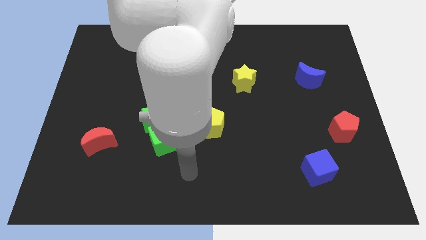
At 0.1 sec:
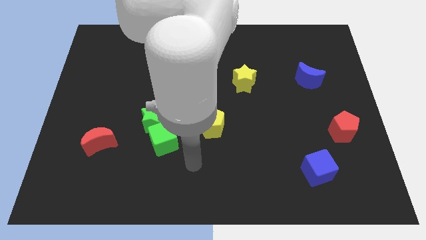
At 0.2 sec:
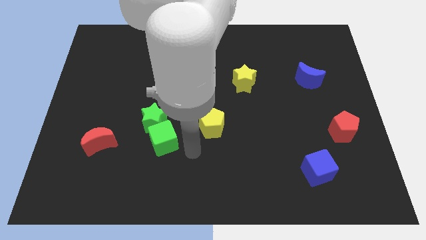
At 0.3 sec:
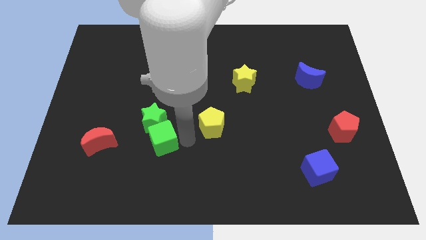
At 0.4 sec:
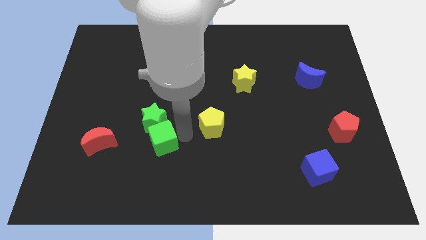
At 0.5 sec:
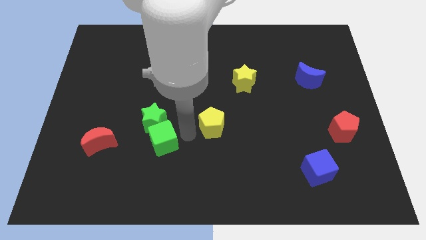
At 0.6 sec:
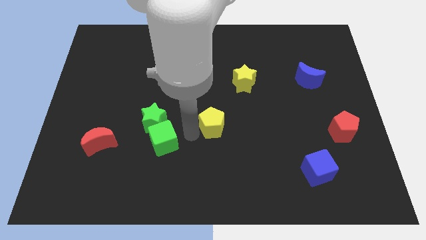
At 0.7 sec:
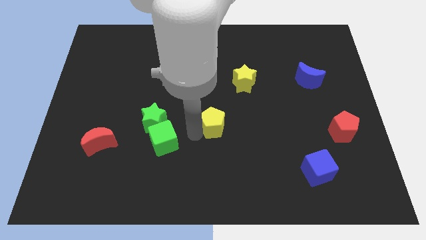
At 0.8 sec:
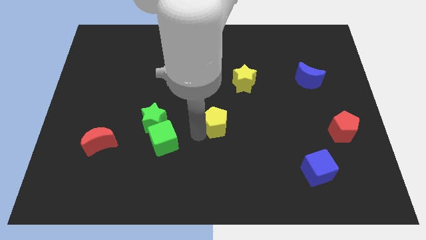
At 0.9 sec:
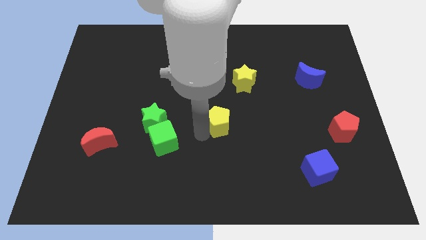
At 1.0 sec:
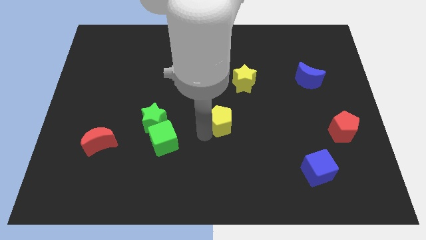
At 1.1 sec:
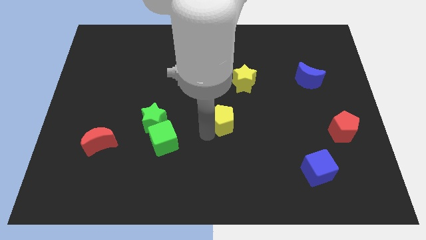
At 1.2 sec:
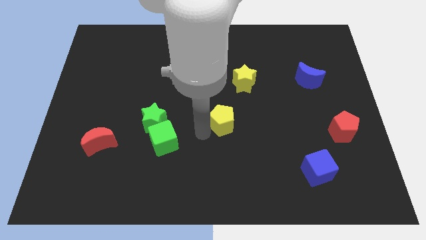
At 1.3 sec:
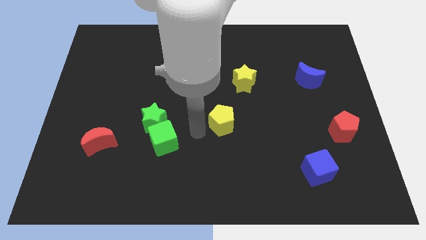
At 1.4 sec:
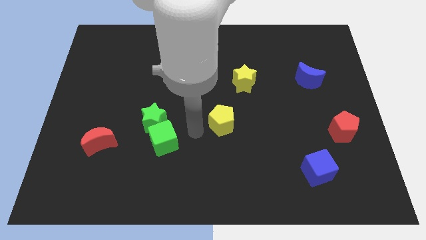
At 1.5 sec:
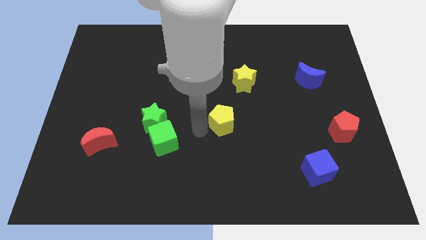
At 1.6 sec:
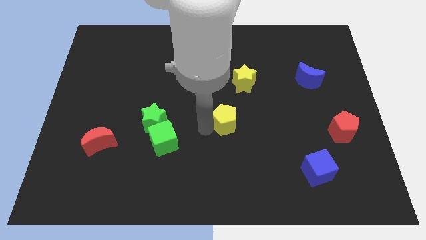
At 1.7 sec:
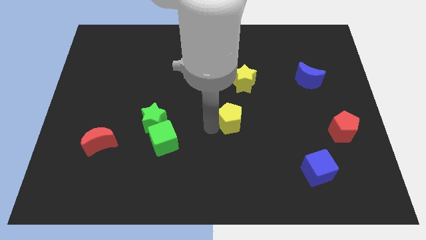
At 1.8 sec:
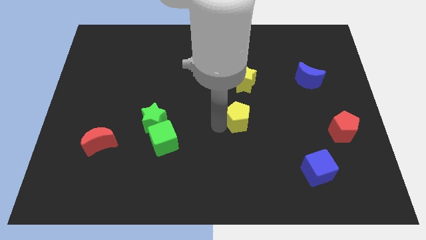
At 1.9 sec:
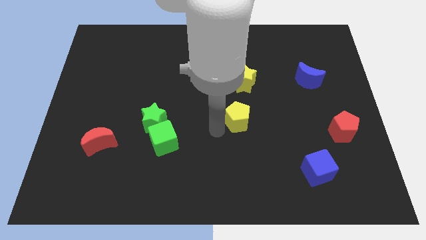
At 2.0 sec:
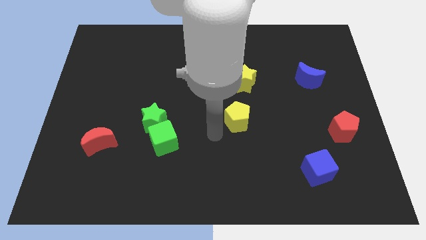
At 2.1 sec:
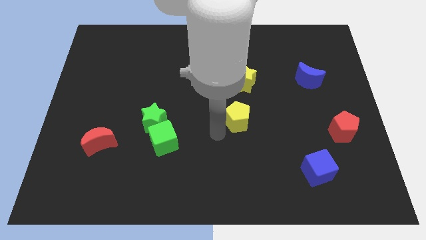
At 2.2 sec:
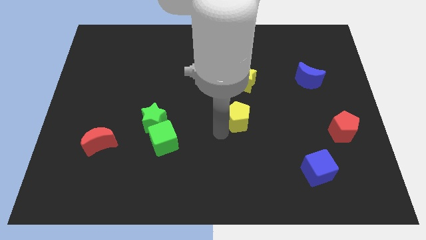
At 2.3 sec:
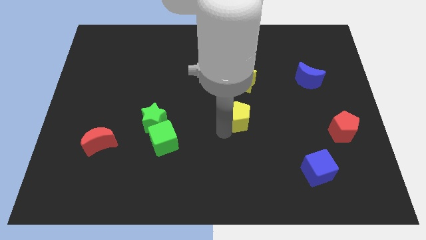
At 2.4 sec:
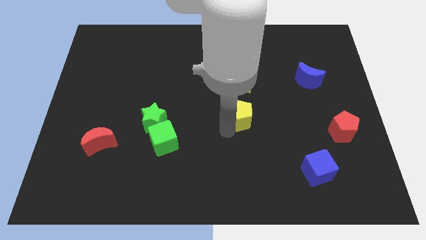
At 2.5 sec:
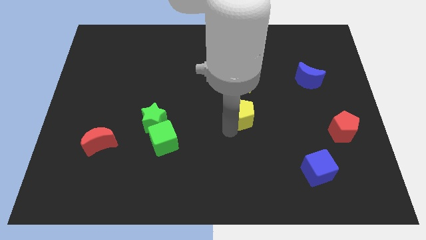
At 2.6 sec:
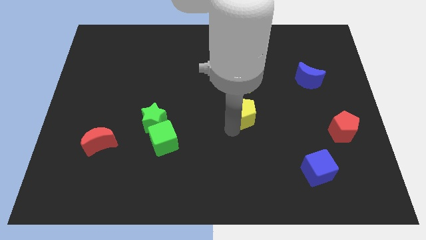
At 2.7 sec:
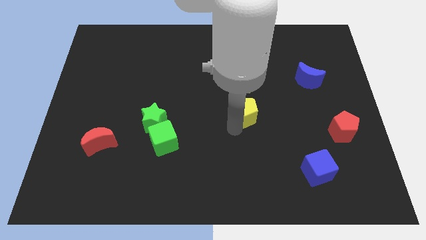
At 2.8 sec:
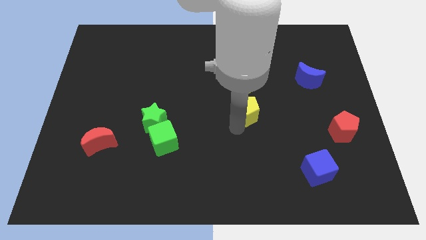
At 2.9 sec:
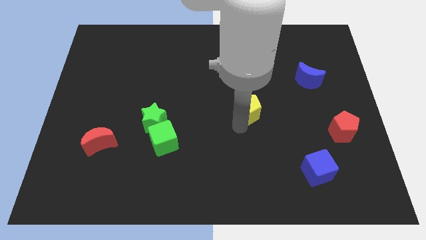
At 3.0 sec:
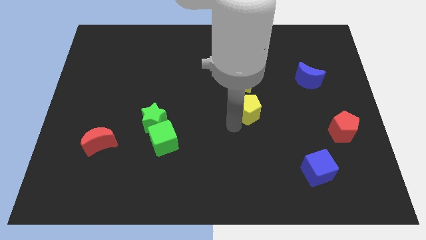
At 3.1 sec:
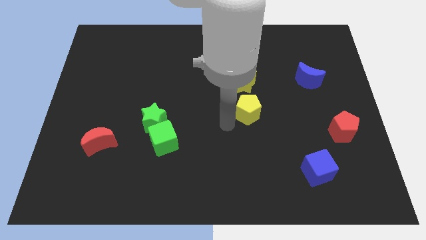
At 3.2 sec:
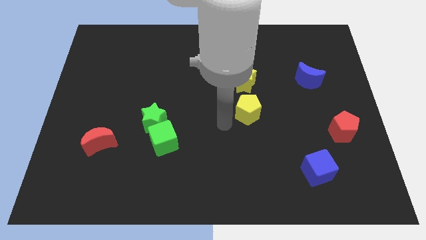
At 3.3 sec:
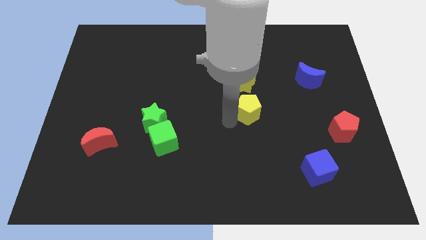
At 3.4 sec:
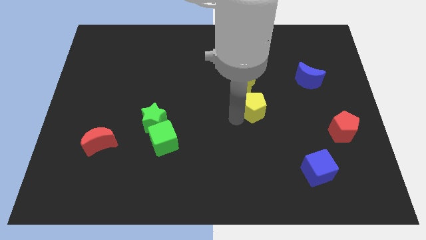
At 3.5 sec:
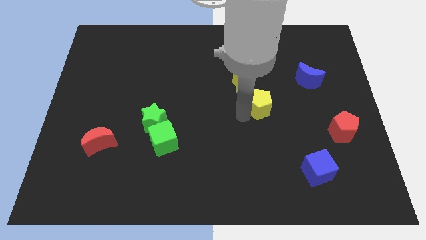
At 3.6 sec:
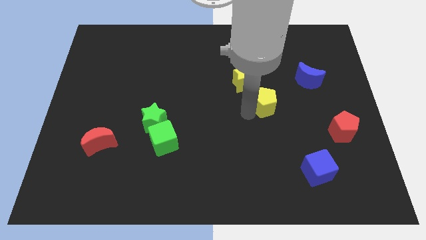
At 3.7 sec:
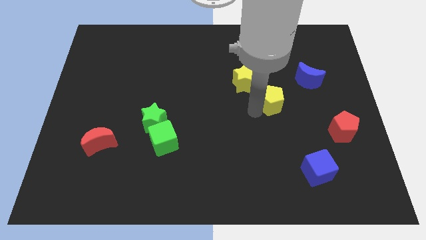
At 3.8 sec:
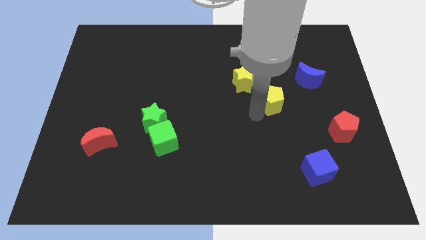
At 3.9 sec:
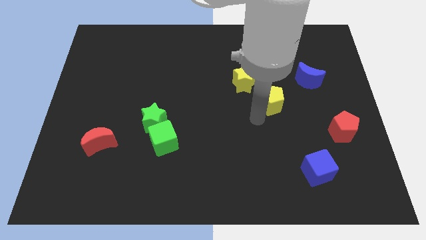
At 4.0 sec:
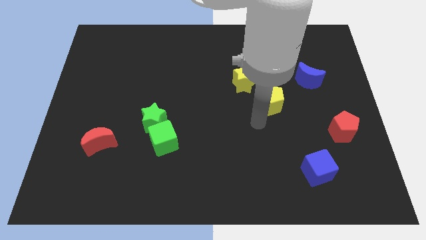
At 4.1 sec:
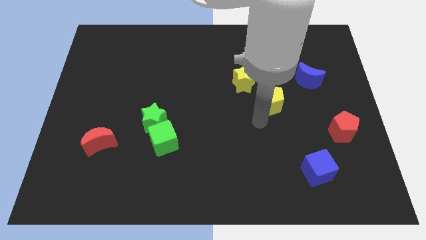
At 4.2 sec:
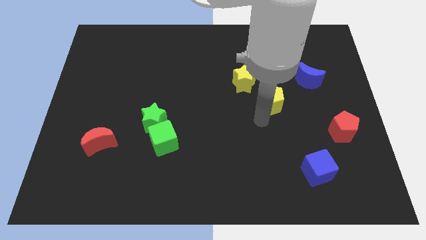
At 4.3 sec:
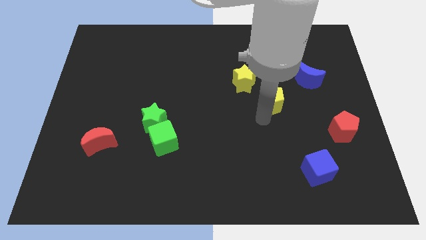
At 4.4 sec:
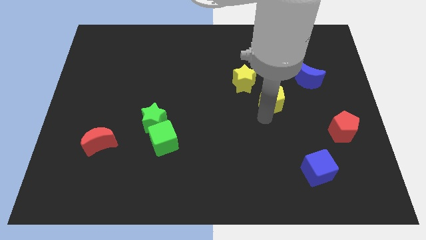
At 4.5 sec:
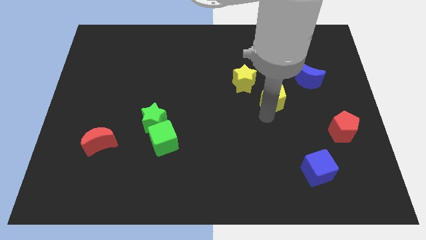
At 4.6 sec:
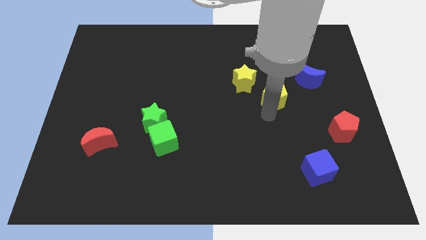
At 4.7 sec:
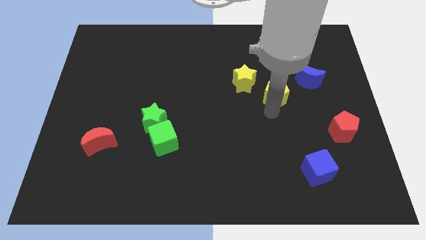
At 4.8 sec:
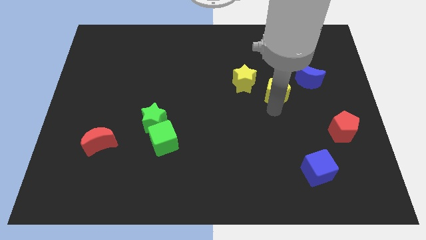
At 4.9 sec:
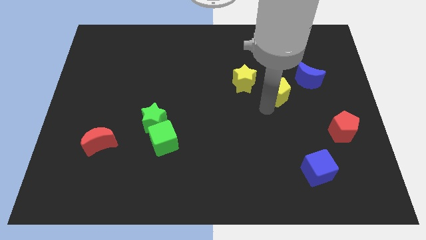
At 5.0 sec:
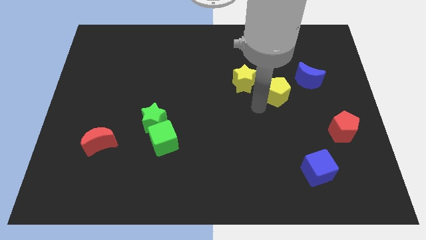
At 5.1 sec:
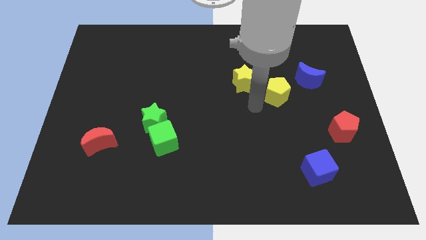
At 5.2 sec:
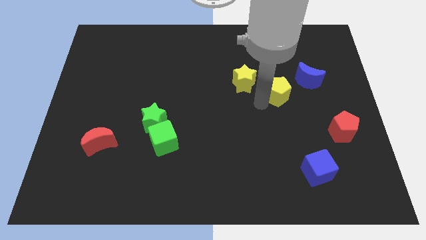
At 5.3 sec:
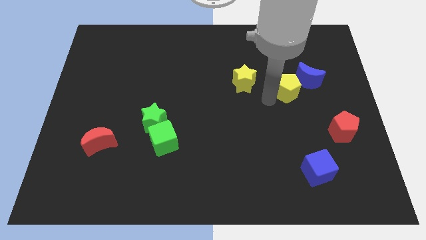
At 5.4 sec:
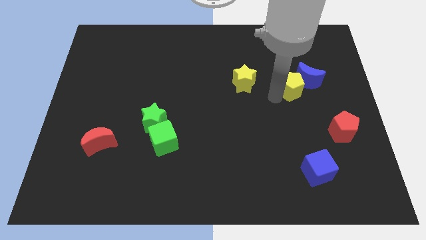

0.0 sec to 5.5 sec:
push the yellow pentagon towards the blue moon

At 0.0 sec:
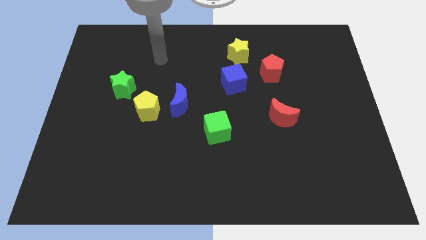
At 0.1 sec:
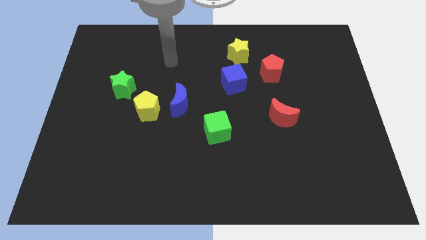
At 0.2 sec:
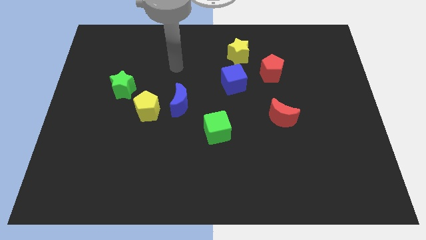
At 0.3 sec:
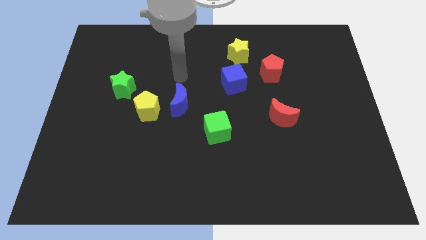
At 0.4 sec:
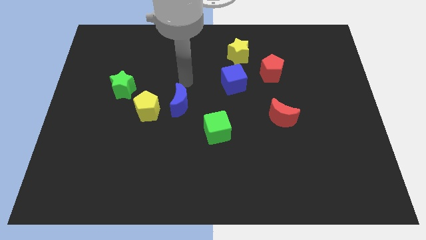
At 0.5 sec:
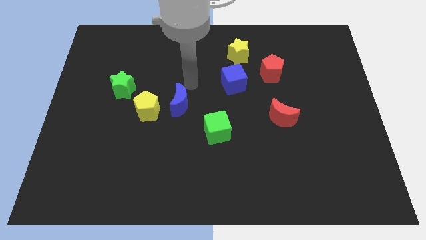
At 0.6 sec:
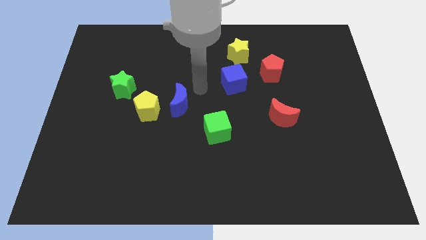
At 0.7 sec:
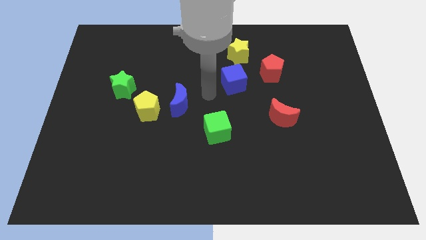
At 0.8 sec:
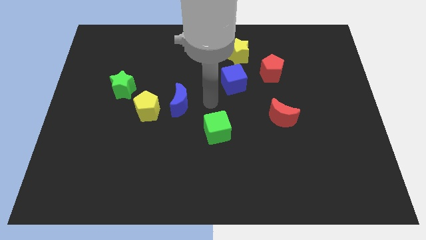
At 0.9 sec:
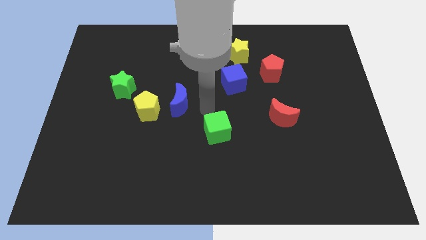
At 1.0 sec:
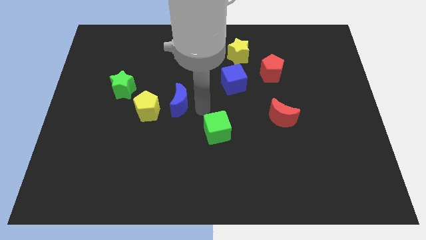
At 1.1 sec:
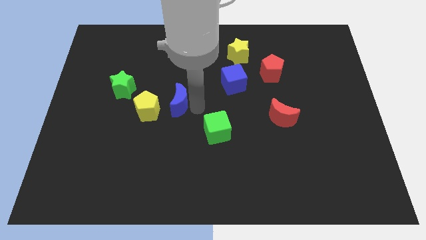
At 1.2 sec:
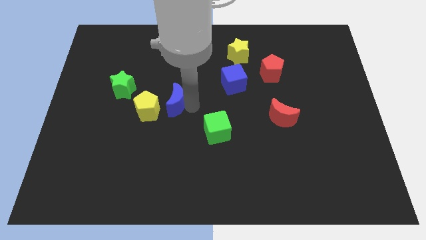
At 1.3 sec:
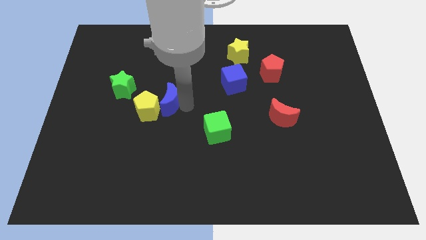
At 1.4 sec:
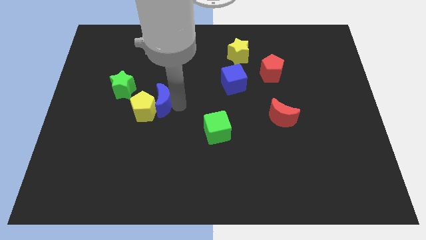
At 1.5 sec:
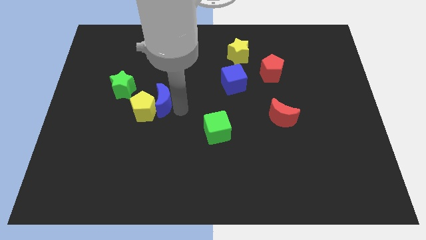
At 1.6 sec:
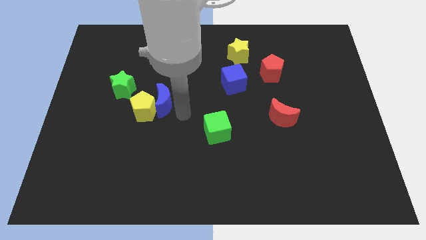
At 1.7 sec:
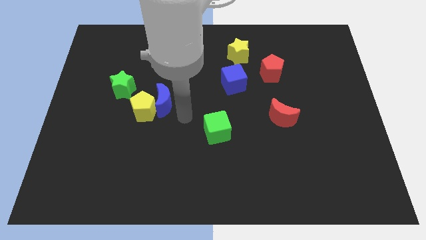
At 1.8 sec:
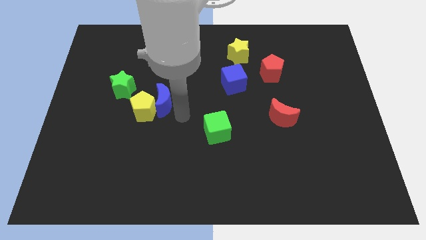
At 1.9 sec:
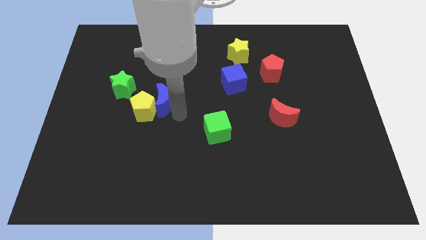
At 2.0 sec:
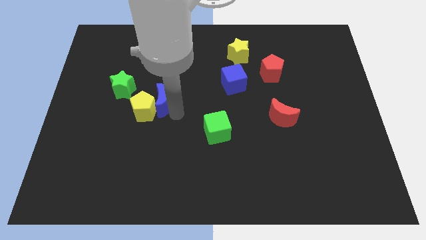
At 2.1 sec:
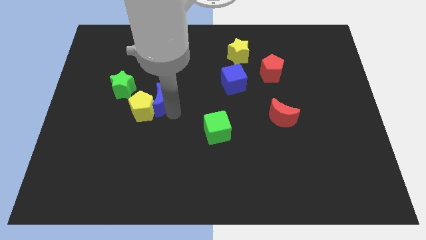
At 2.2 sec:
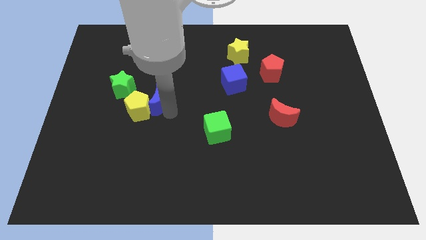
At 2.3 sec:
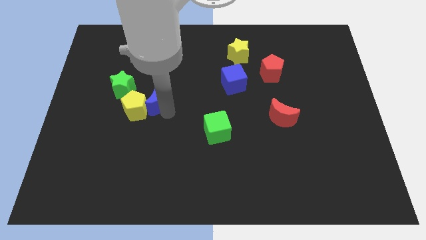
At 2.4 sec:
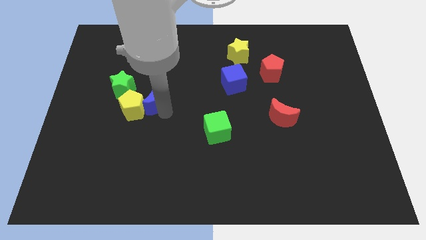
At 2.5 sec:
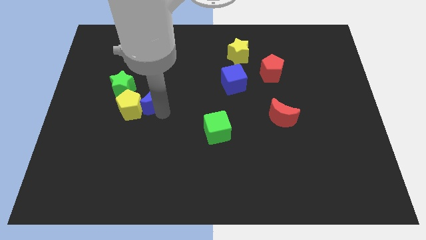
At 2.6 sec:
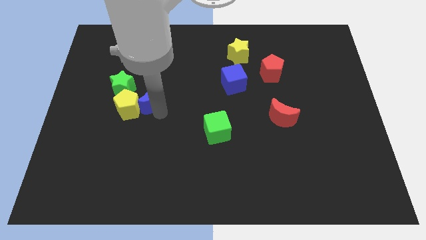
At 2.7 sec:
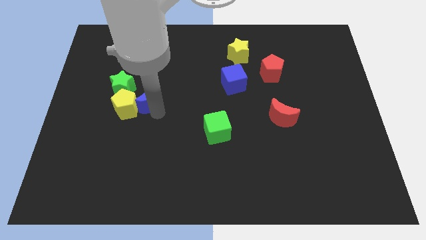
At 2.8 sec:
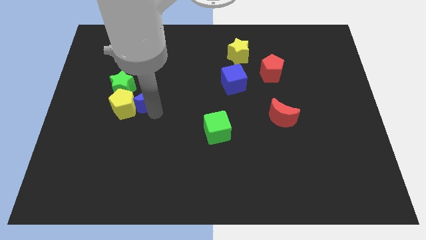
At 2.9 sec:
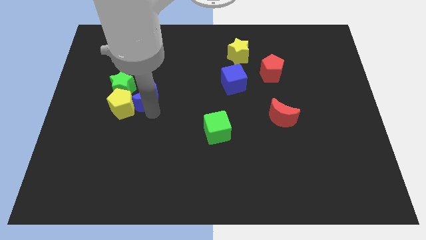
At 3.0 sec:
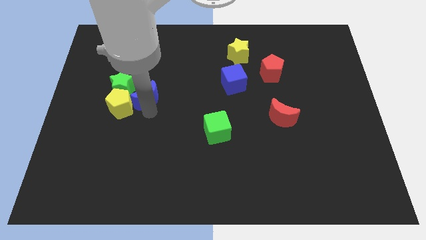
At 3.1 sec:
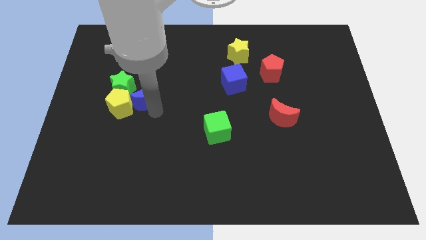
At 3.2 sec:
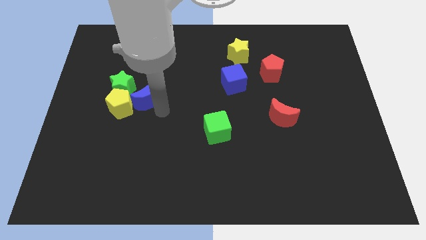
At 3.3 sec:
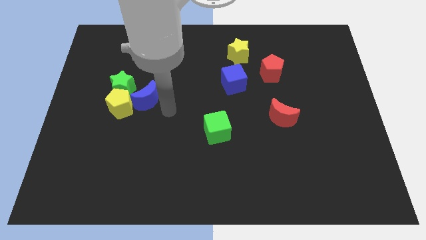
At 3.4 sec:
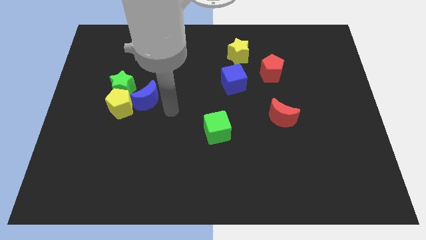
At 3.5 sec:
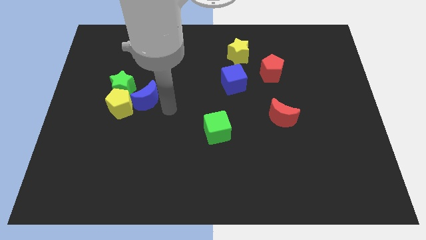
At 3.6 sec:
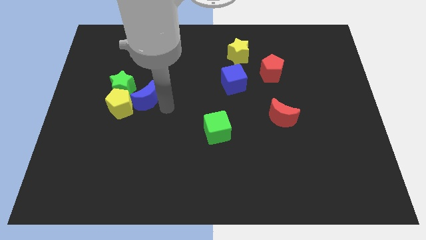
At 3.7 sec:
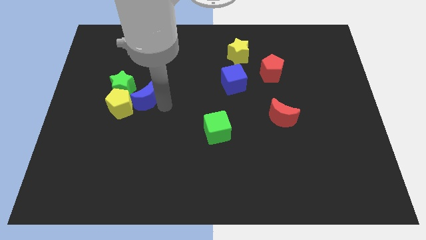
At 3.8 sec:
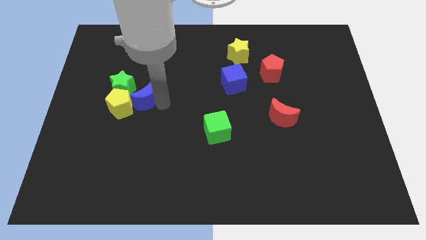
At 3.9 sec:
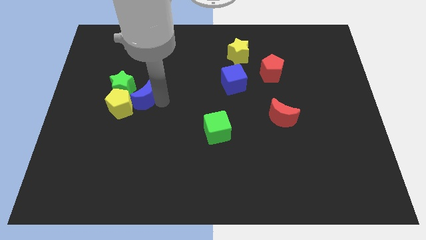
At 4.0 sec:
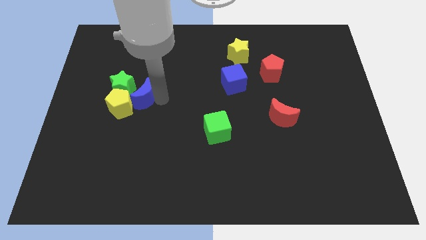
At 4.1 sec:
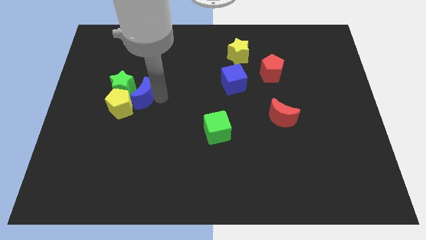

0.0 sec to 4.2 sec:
push the blue moon close to the green star
